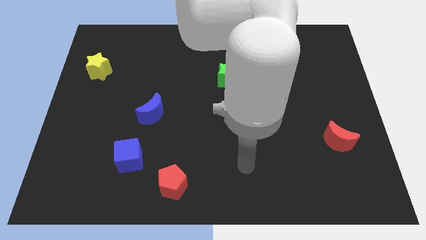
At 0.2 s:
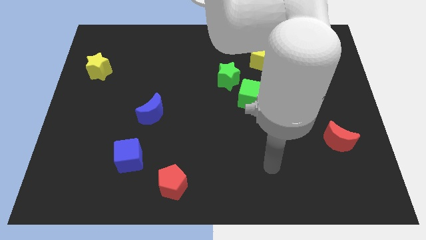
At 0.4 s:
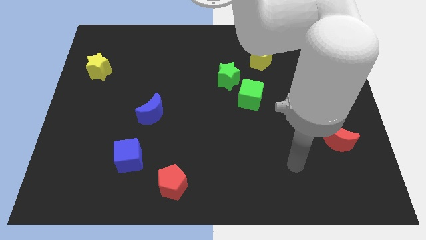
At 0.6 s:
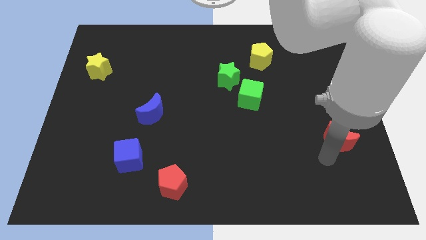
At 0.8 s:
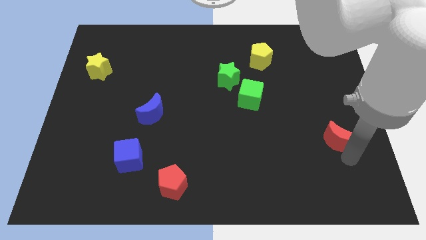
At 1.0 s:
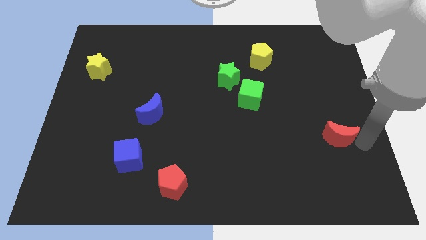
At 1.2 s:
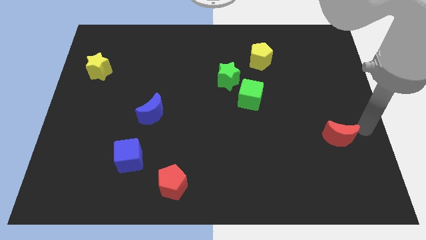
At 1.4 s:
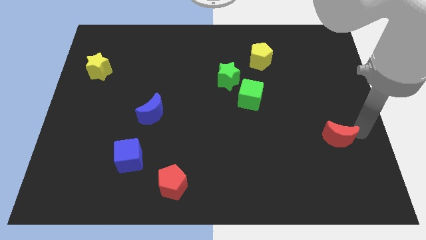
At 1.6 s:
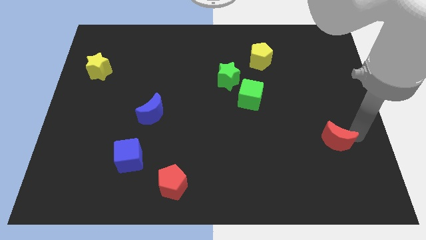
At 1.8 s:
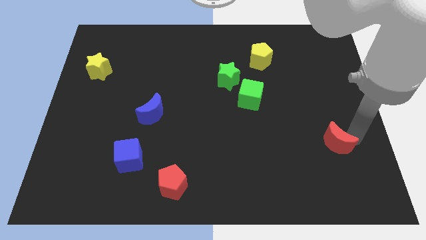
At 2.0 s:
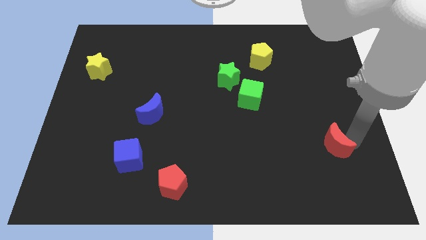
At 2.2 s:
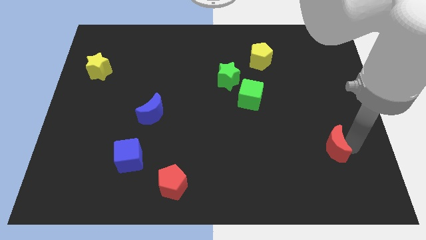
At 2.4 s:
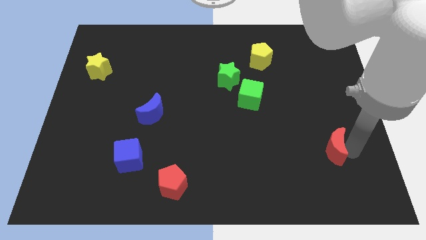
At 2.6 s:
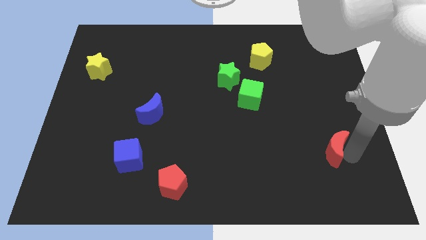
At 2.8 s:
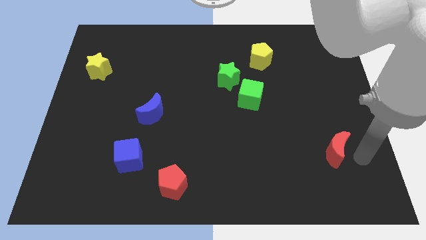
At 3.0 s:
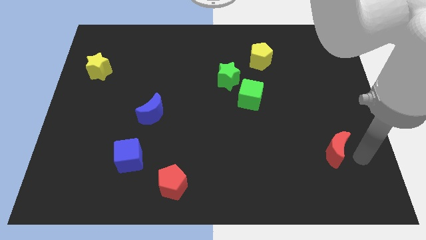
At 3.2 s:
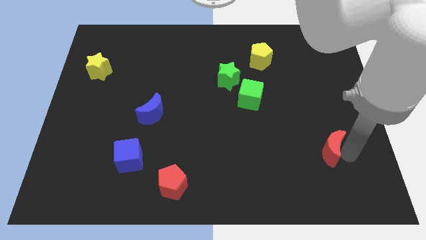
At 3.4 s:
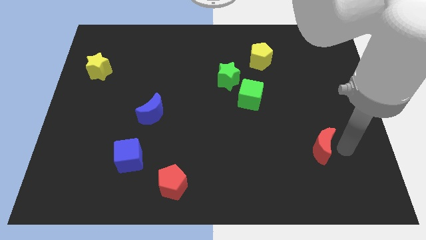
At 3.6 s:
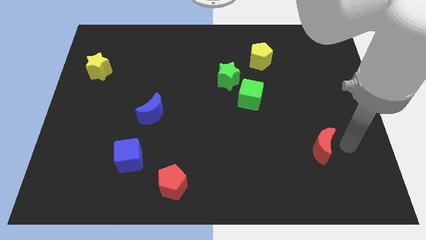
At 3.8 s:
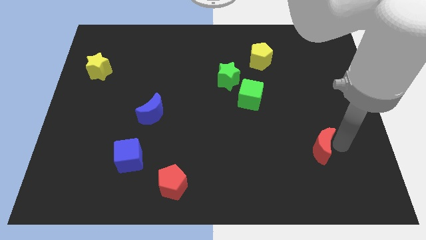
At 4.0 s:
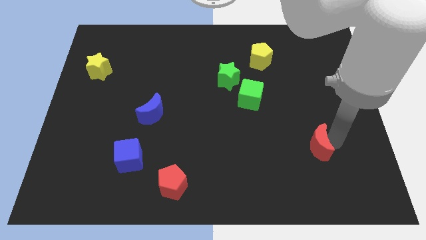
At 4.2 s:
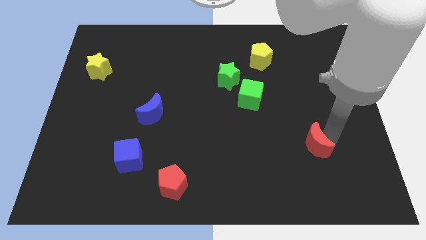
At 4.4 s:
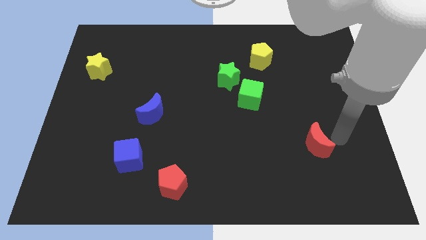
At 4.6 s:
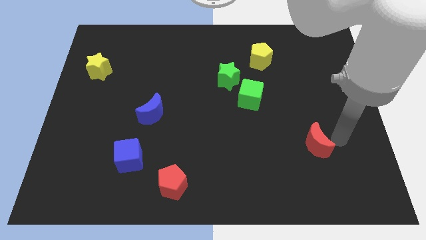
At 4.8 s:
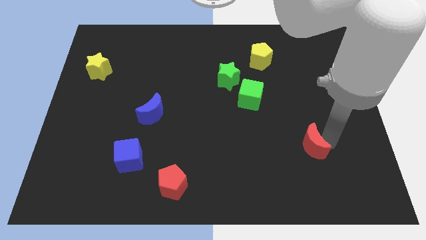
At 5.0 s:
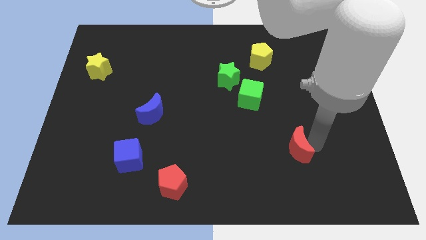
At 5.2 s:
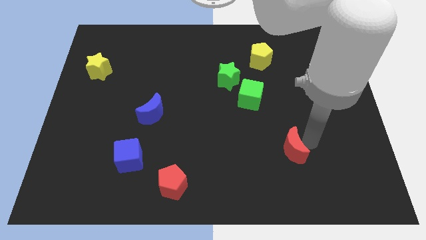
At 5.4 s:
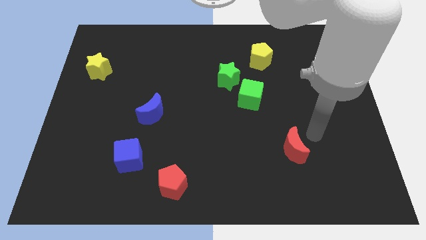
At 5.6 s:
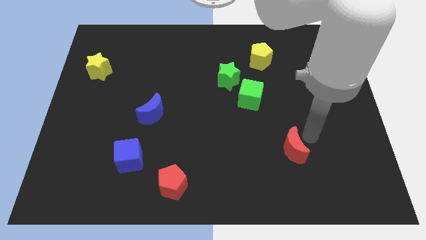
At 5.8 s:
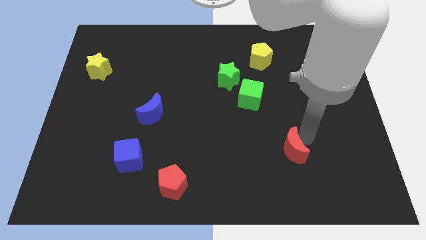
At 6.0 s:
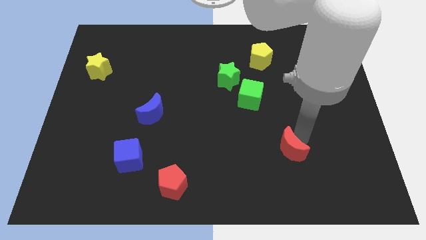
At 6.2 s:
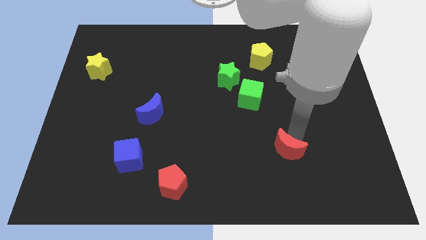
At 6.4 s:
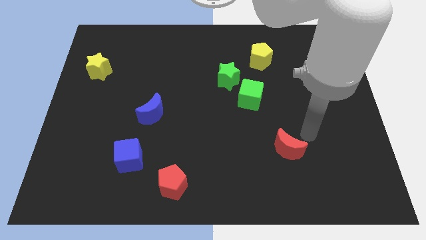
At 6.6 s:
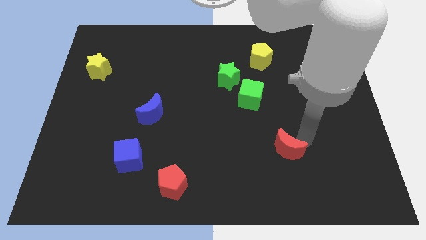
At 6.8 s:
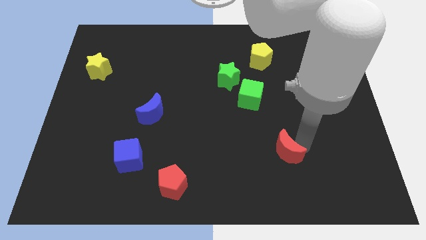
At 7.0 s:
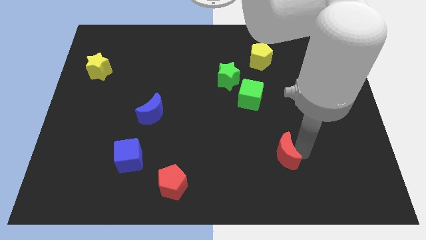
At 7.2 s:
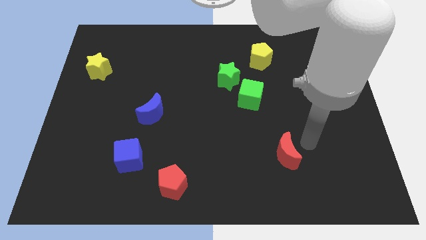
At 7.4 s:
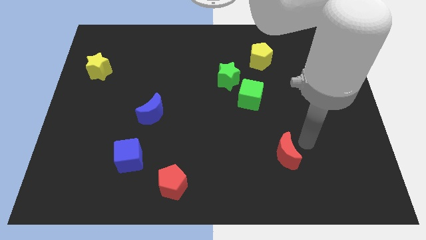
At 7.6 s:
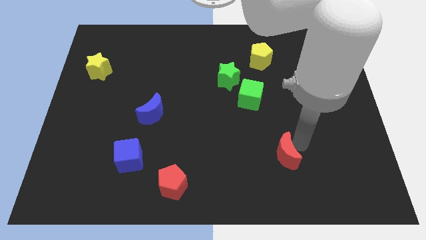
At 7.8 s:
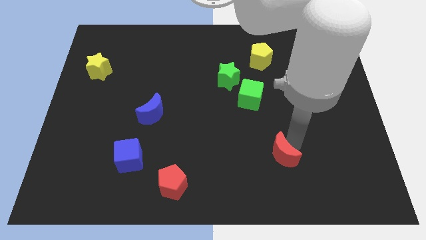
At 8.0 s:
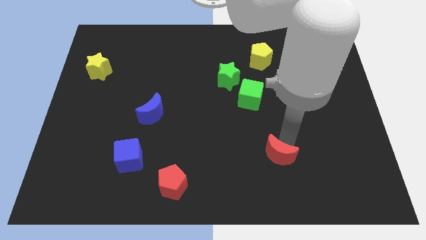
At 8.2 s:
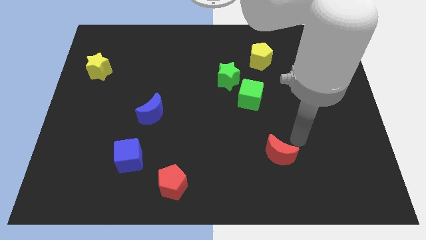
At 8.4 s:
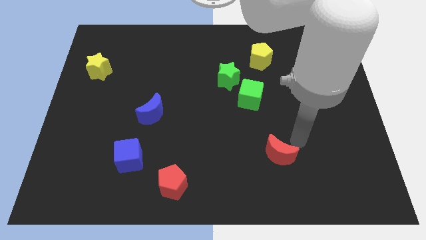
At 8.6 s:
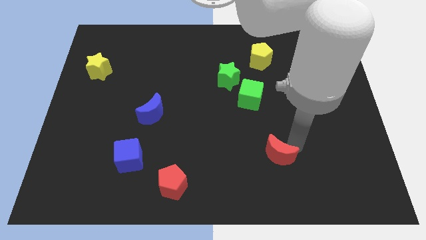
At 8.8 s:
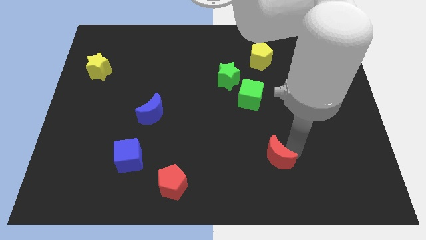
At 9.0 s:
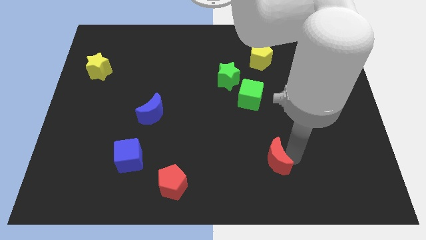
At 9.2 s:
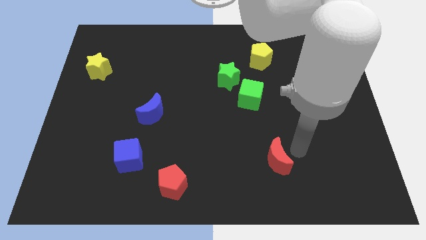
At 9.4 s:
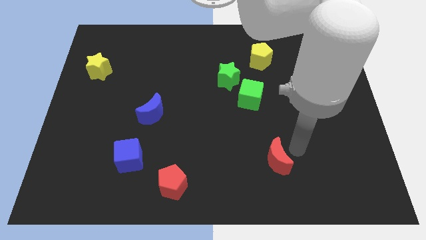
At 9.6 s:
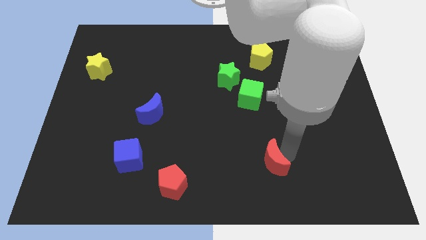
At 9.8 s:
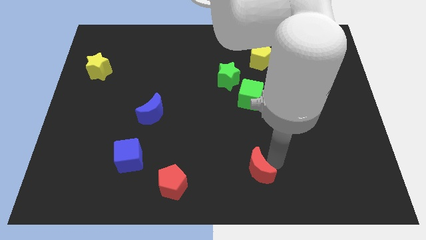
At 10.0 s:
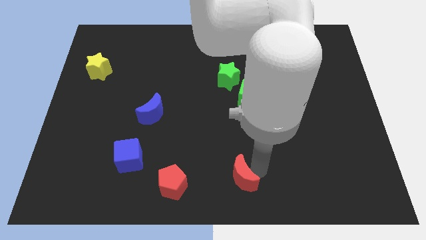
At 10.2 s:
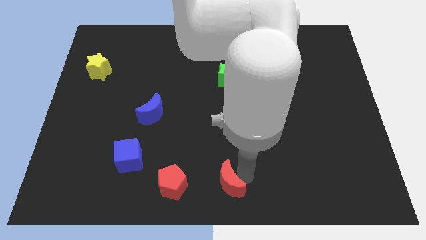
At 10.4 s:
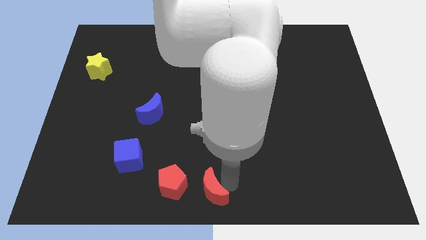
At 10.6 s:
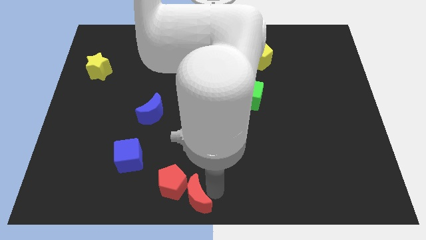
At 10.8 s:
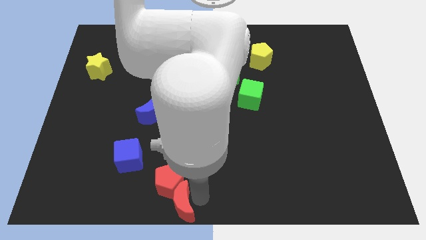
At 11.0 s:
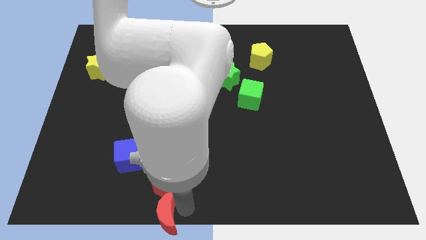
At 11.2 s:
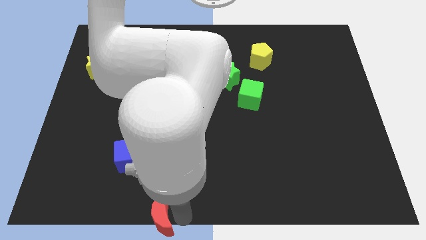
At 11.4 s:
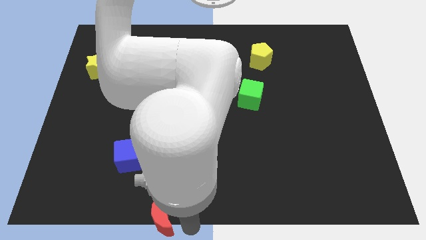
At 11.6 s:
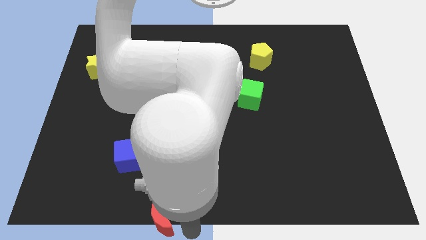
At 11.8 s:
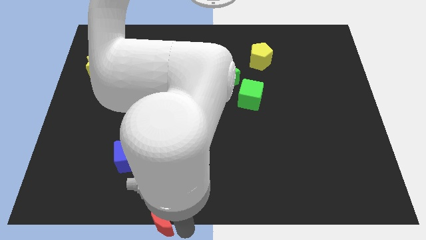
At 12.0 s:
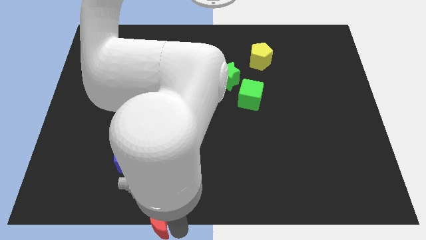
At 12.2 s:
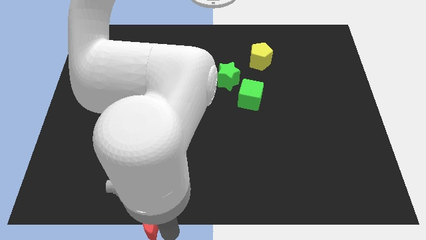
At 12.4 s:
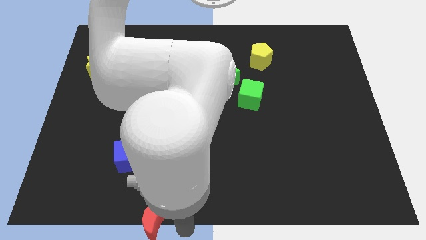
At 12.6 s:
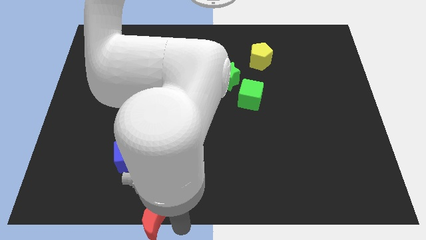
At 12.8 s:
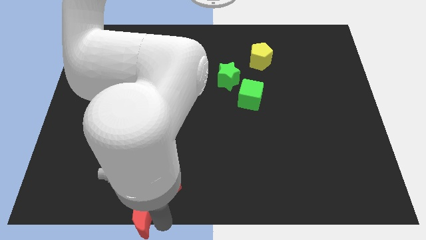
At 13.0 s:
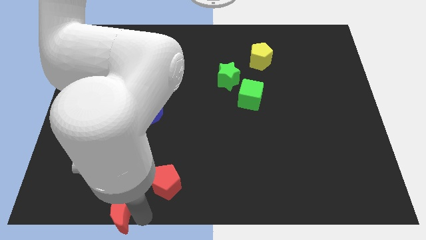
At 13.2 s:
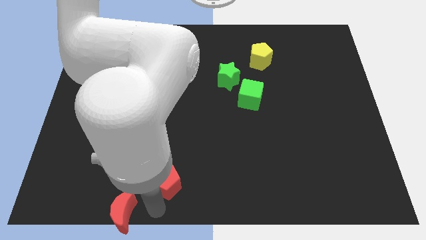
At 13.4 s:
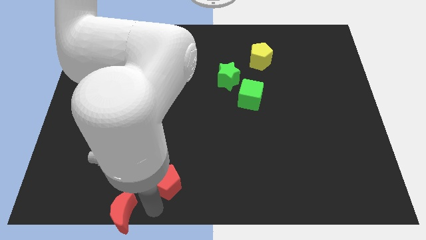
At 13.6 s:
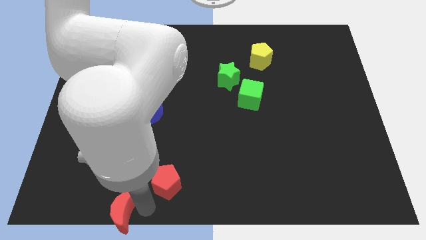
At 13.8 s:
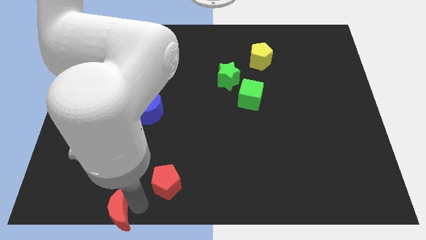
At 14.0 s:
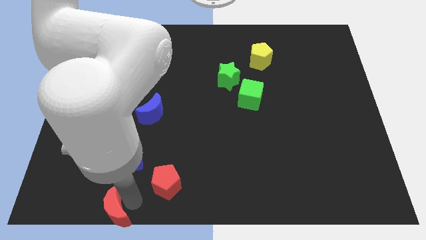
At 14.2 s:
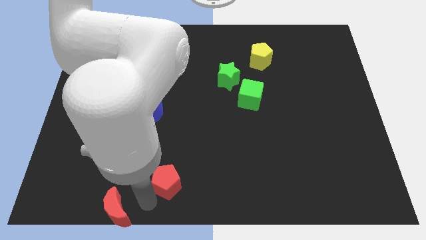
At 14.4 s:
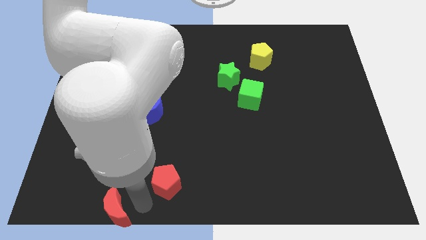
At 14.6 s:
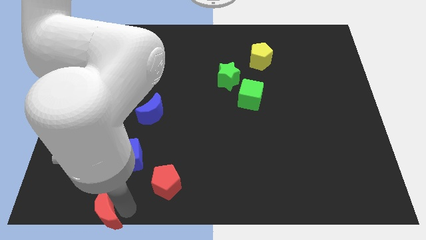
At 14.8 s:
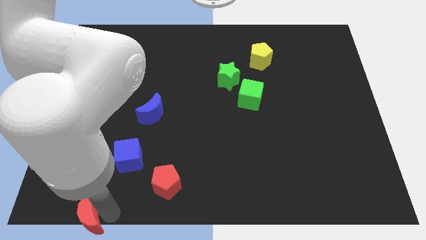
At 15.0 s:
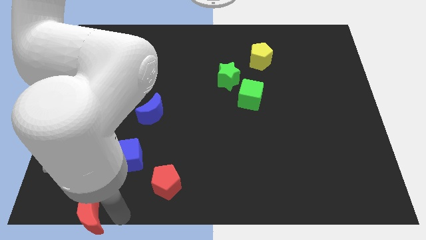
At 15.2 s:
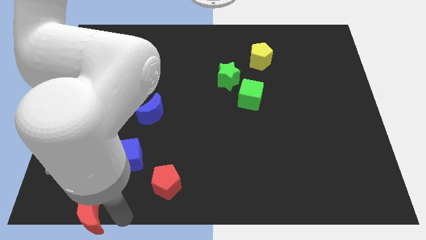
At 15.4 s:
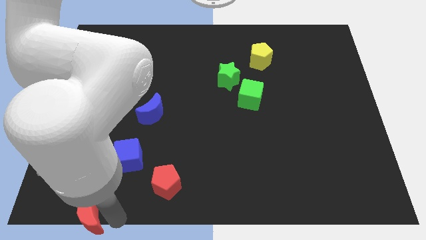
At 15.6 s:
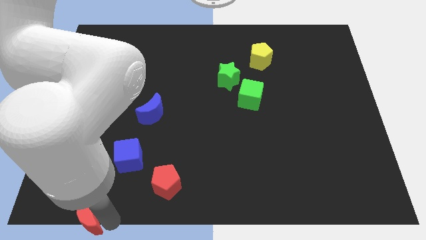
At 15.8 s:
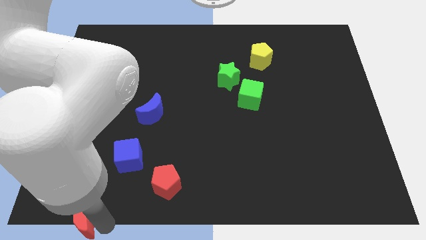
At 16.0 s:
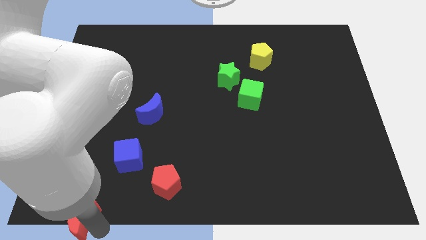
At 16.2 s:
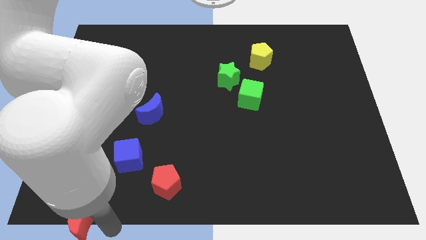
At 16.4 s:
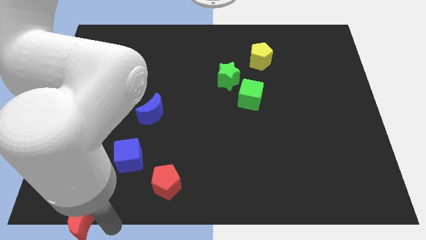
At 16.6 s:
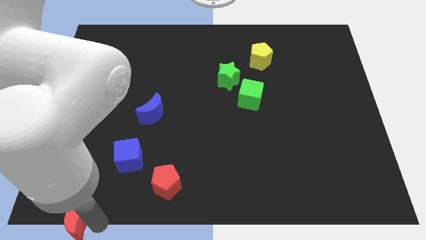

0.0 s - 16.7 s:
move the red moon to the bottom left corner
